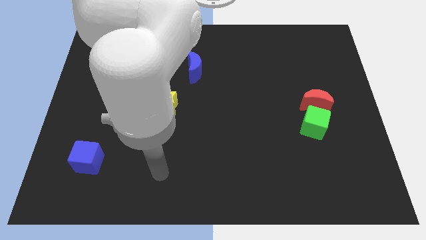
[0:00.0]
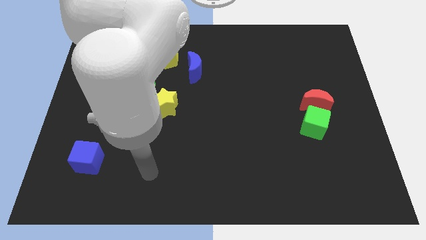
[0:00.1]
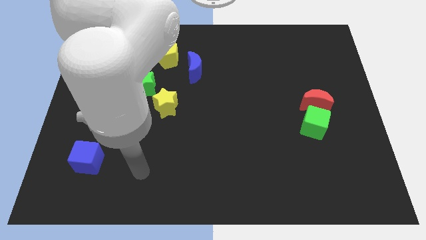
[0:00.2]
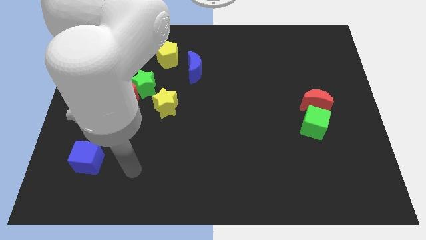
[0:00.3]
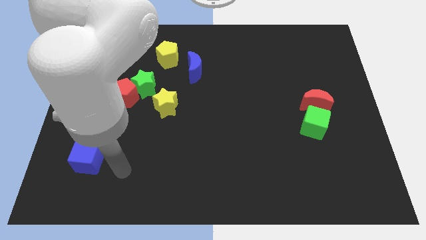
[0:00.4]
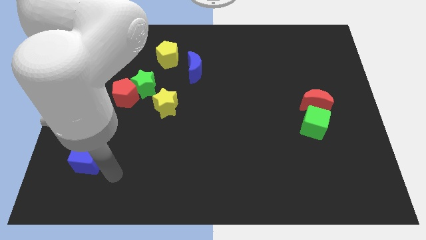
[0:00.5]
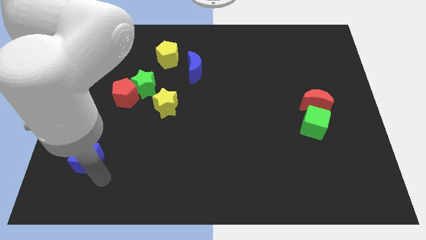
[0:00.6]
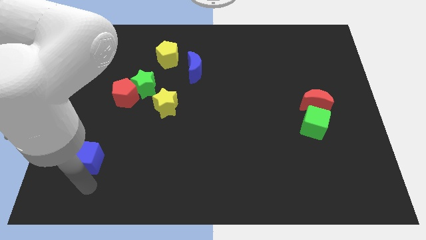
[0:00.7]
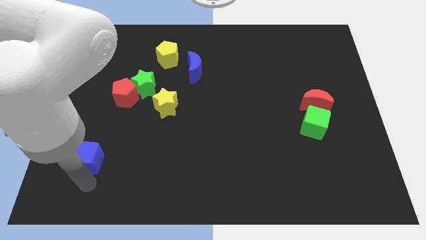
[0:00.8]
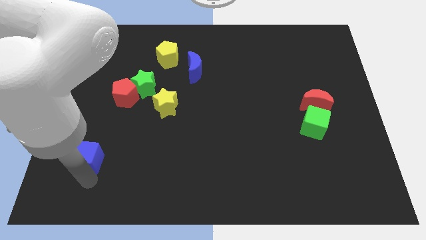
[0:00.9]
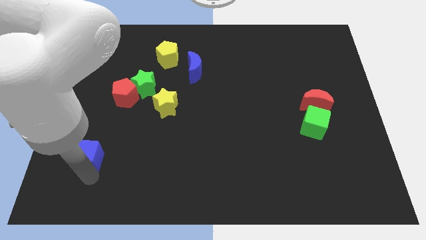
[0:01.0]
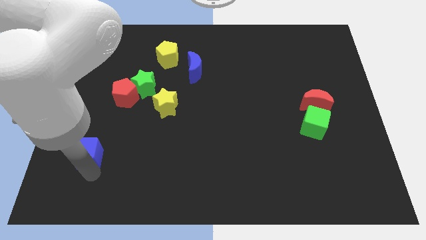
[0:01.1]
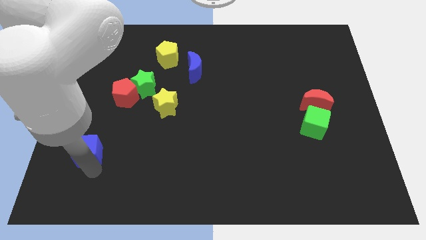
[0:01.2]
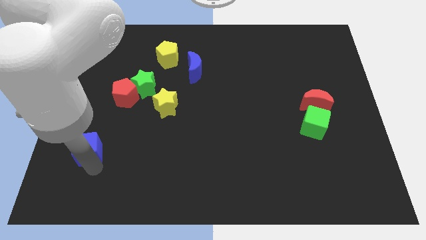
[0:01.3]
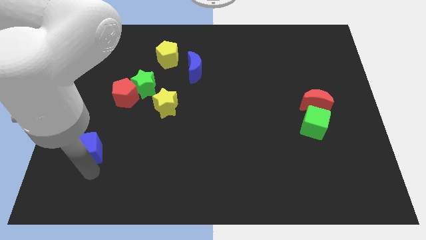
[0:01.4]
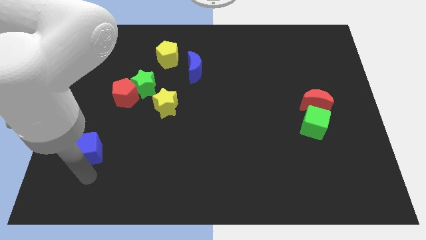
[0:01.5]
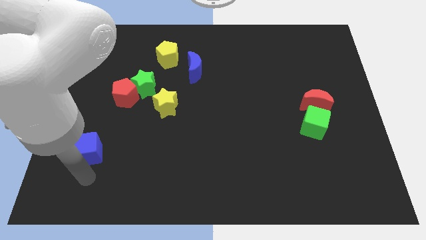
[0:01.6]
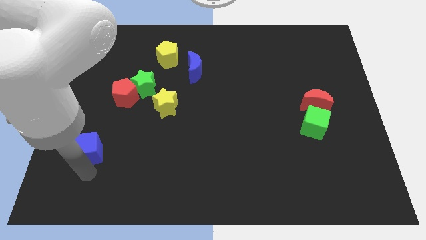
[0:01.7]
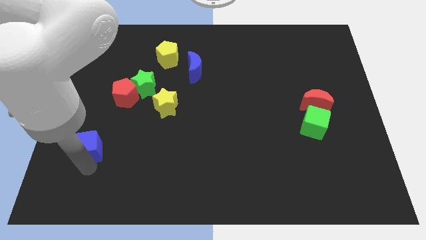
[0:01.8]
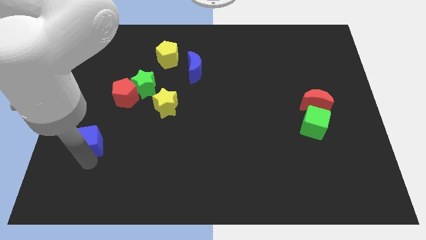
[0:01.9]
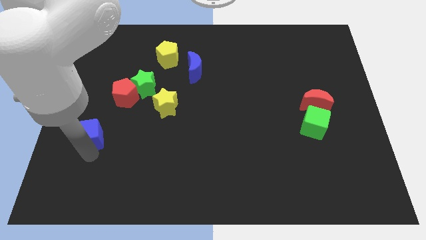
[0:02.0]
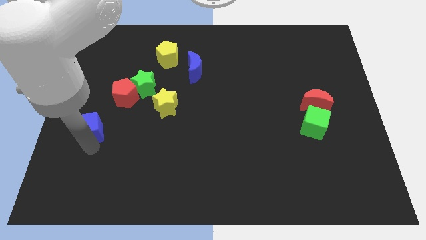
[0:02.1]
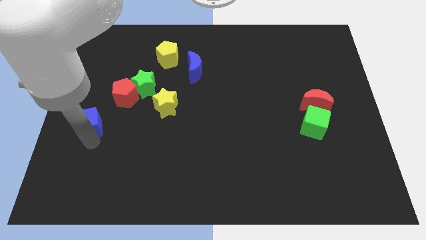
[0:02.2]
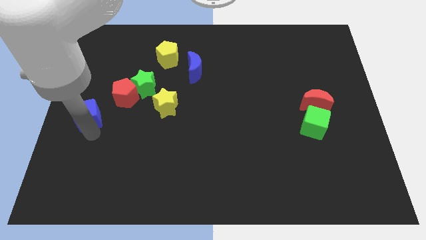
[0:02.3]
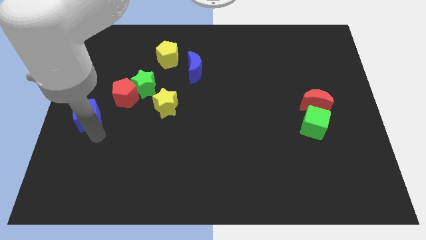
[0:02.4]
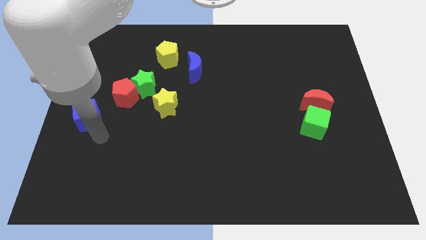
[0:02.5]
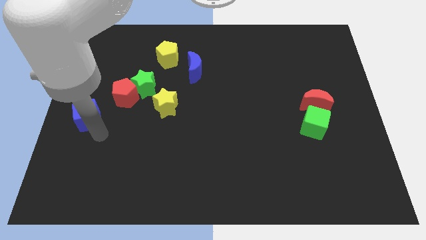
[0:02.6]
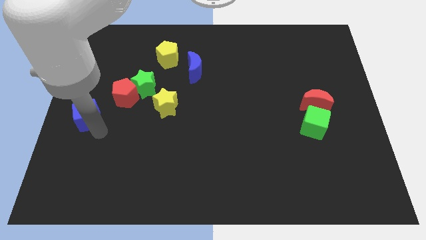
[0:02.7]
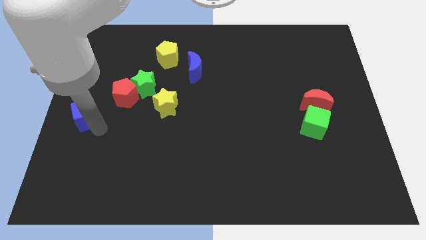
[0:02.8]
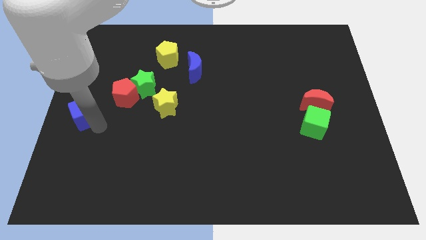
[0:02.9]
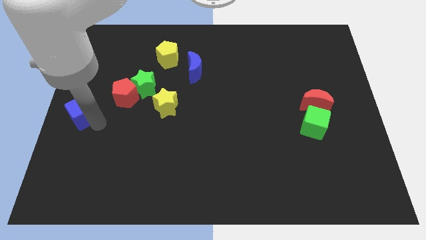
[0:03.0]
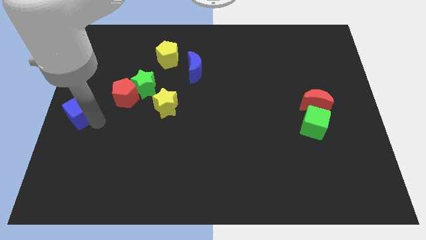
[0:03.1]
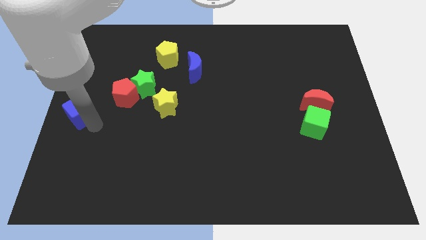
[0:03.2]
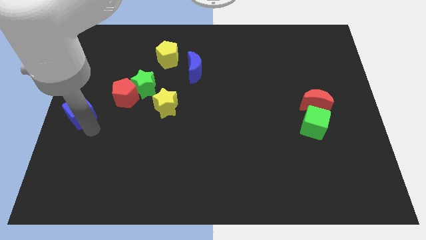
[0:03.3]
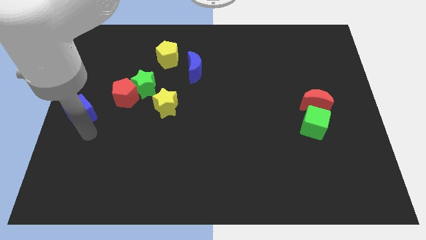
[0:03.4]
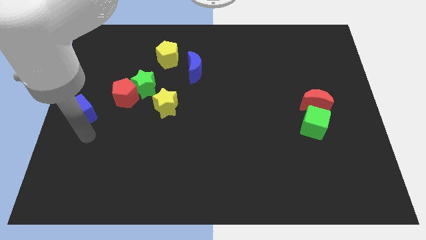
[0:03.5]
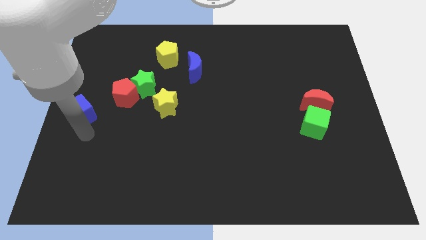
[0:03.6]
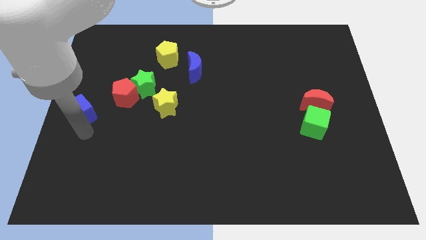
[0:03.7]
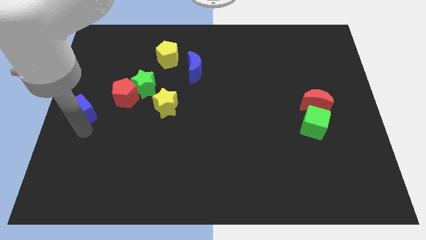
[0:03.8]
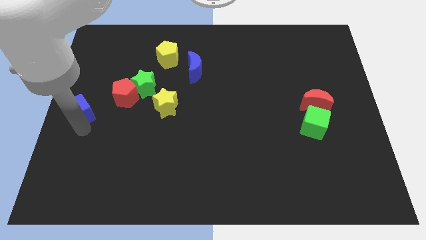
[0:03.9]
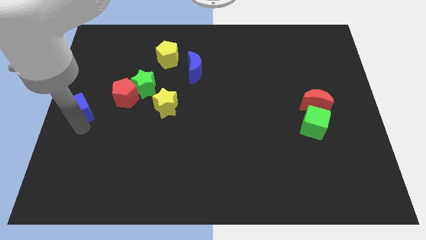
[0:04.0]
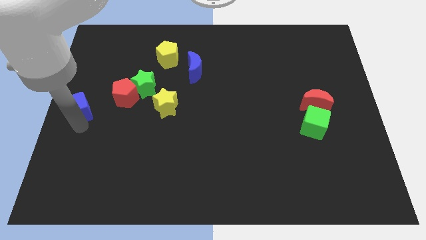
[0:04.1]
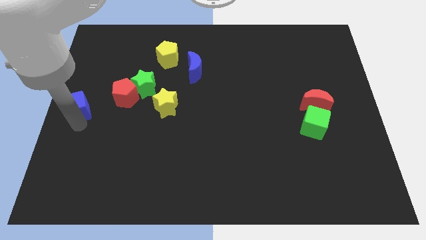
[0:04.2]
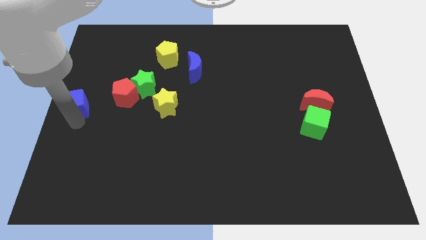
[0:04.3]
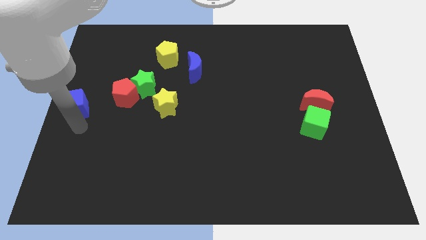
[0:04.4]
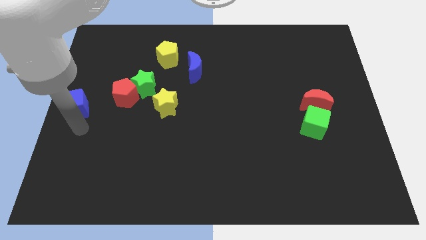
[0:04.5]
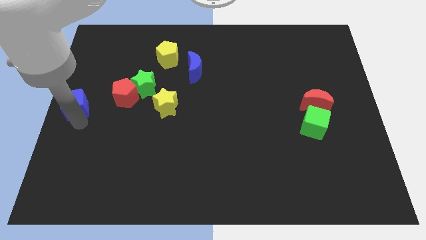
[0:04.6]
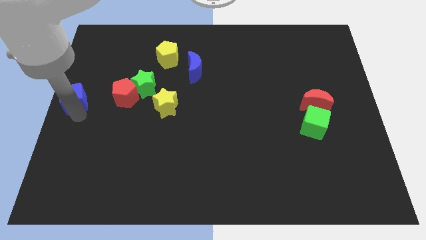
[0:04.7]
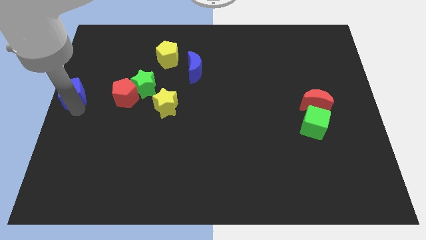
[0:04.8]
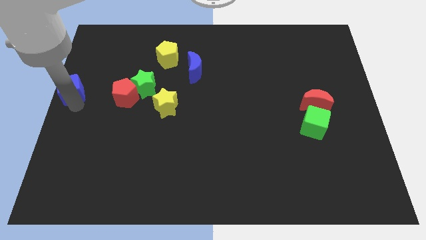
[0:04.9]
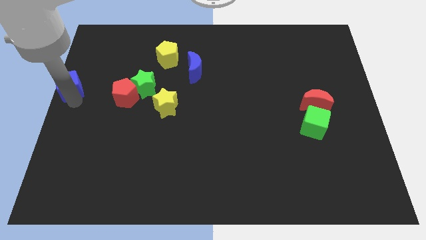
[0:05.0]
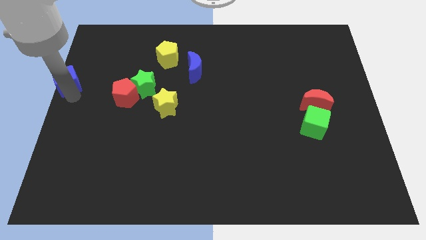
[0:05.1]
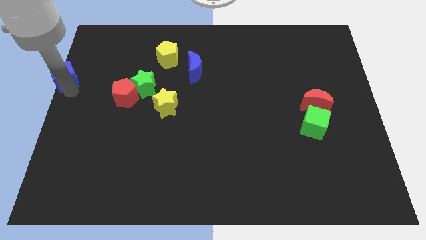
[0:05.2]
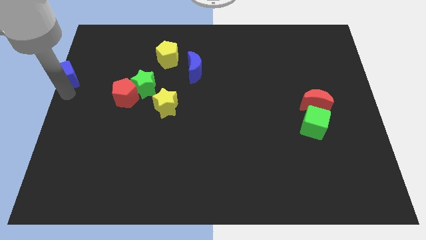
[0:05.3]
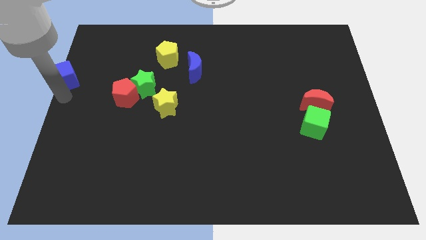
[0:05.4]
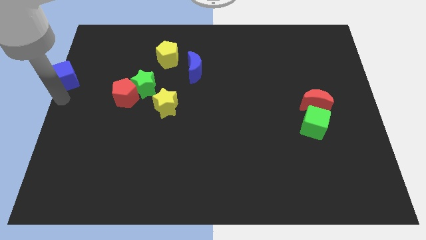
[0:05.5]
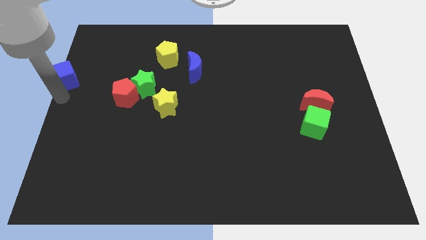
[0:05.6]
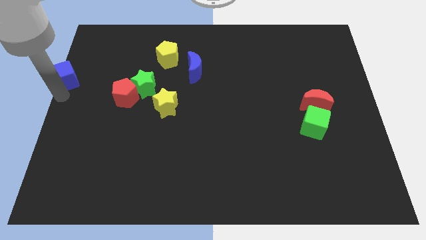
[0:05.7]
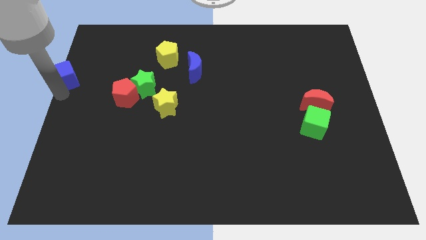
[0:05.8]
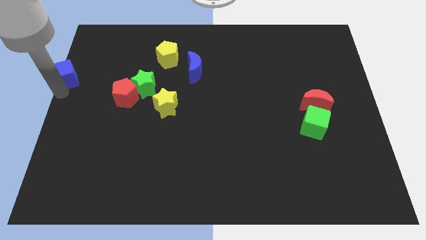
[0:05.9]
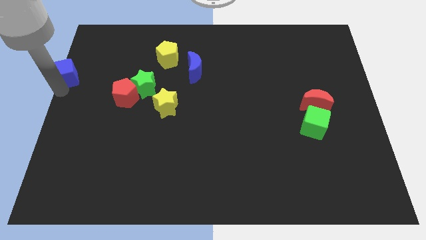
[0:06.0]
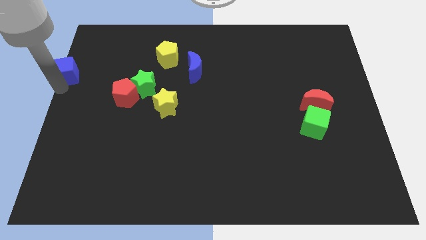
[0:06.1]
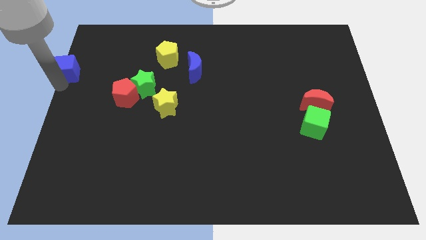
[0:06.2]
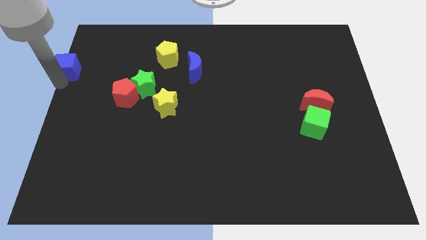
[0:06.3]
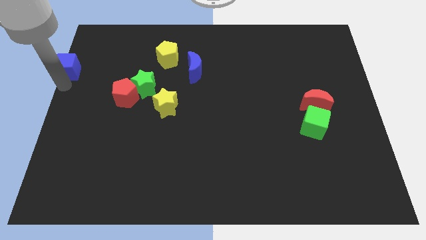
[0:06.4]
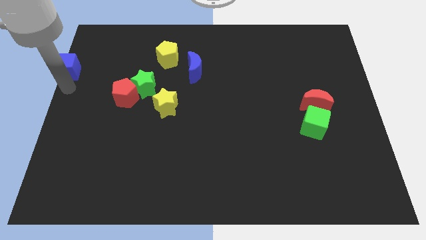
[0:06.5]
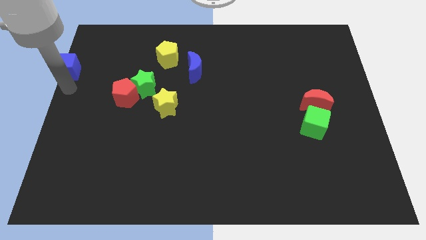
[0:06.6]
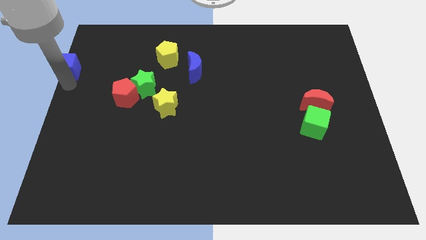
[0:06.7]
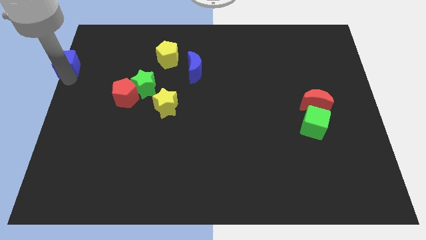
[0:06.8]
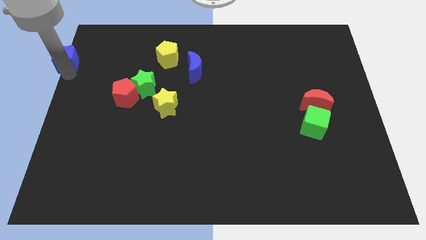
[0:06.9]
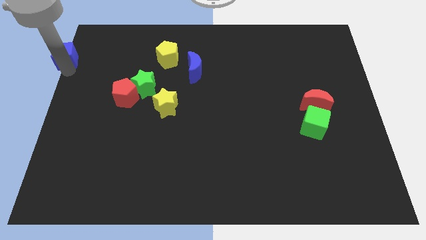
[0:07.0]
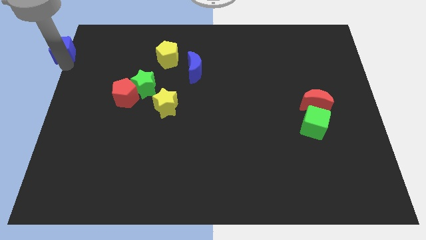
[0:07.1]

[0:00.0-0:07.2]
put the blue cube to the top left of the board
